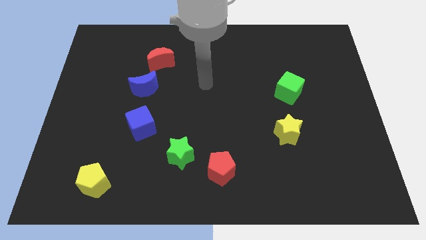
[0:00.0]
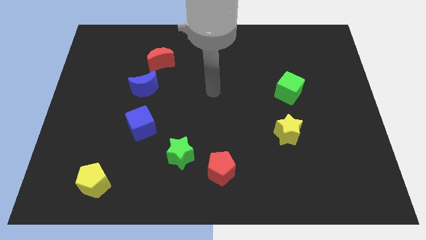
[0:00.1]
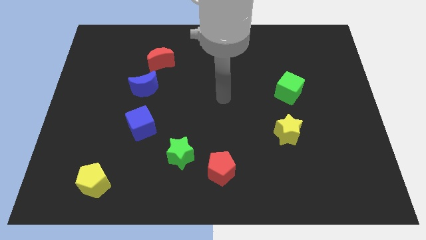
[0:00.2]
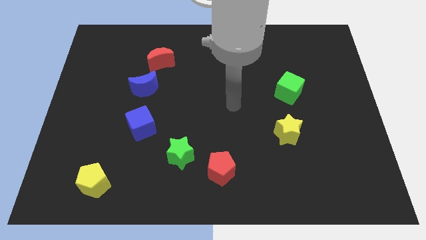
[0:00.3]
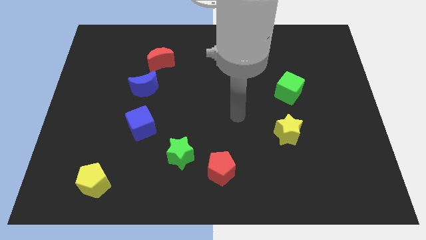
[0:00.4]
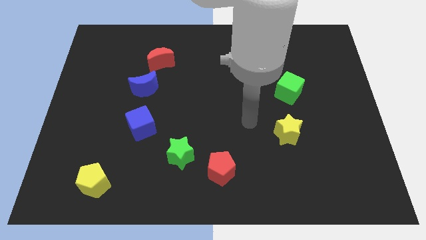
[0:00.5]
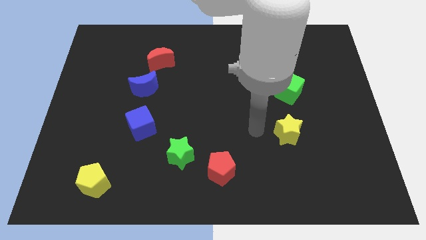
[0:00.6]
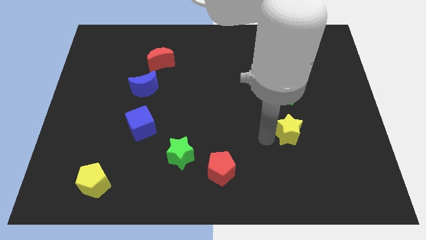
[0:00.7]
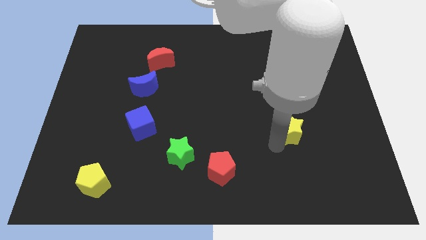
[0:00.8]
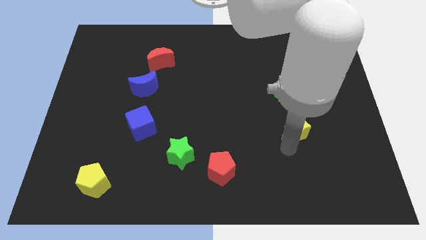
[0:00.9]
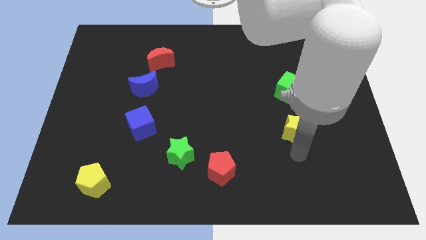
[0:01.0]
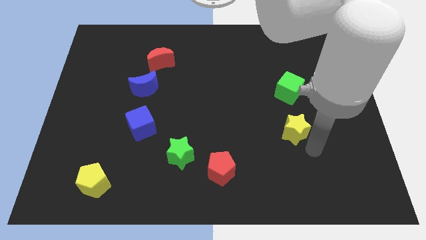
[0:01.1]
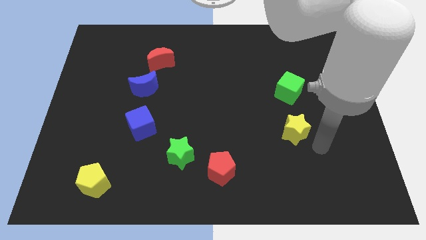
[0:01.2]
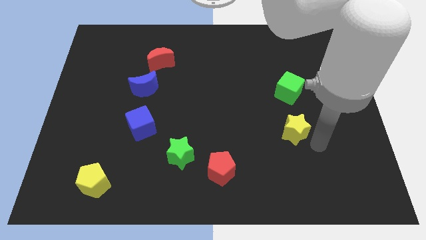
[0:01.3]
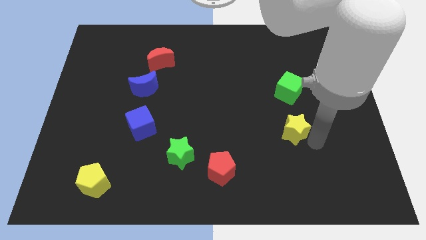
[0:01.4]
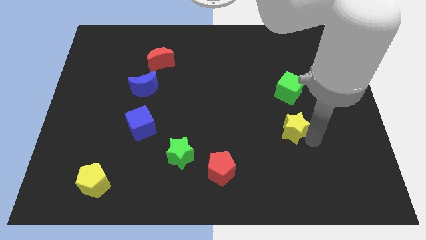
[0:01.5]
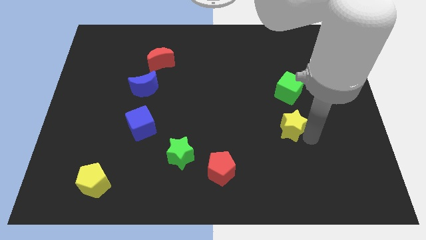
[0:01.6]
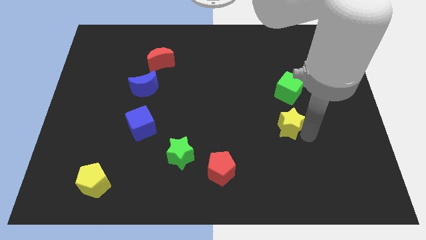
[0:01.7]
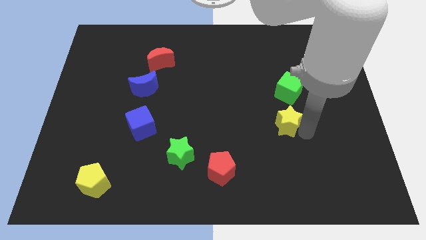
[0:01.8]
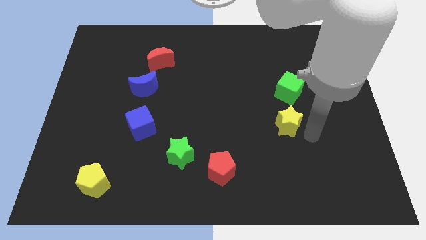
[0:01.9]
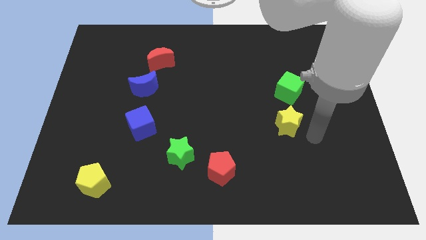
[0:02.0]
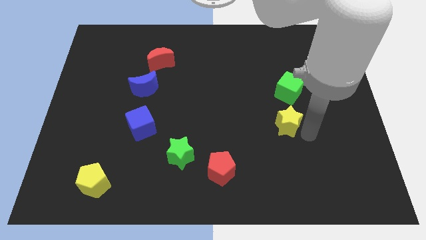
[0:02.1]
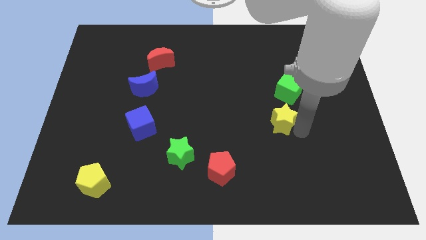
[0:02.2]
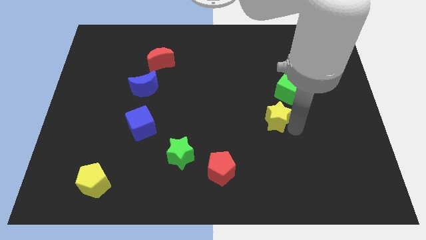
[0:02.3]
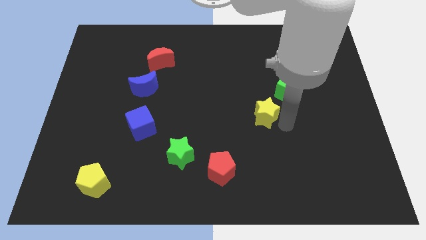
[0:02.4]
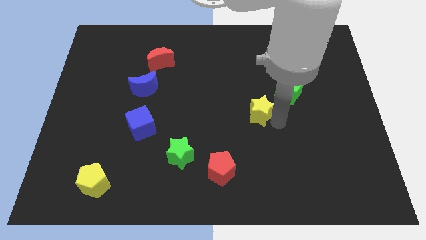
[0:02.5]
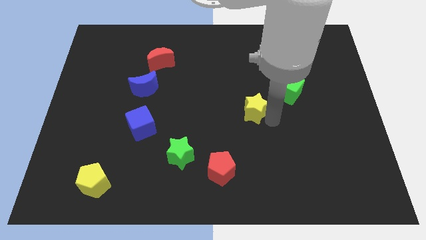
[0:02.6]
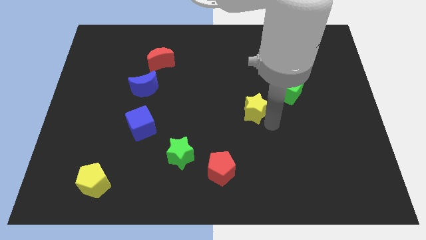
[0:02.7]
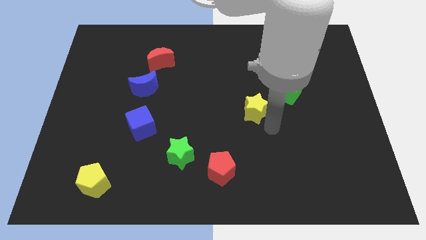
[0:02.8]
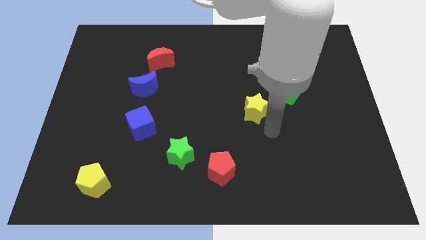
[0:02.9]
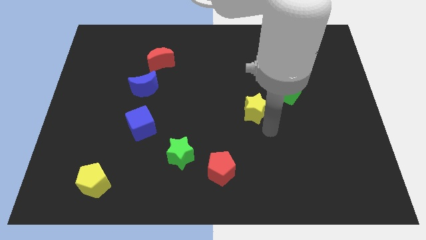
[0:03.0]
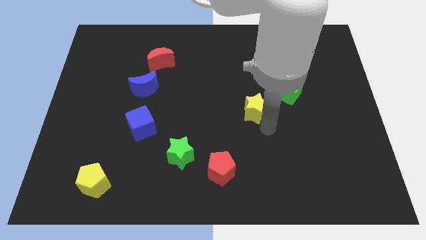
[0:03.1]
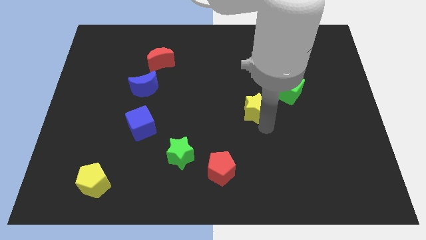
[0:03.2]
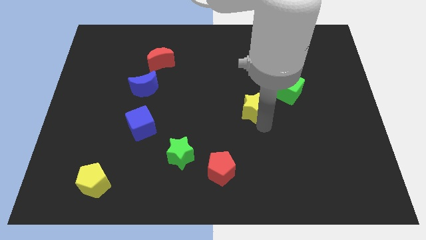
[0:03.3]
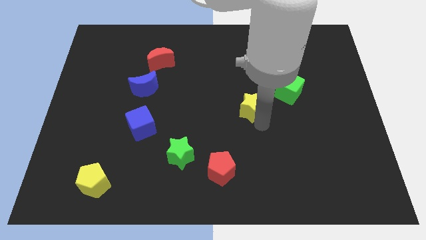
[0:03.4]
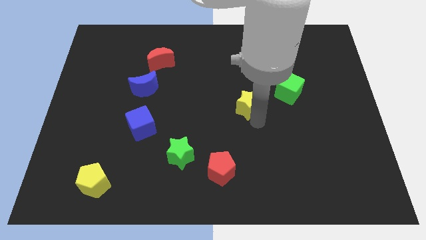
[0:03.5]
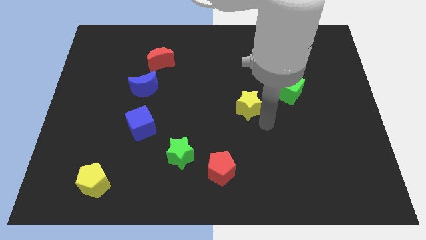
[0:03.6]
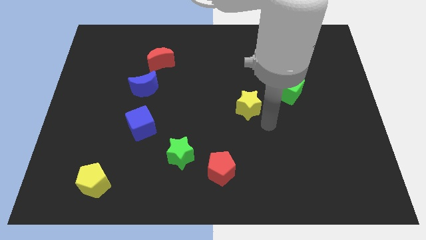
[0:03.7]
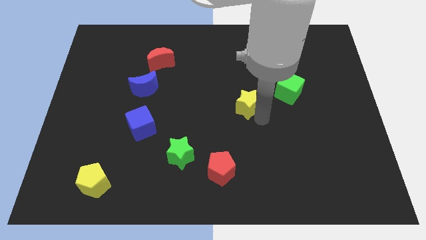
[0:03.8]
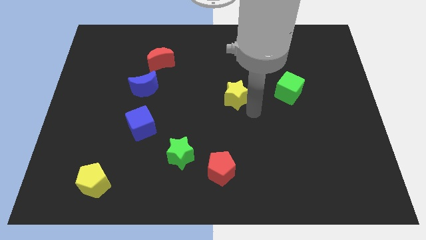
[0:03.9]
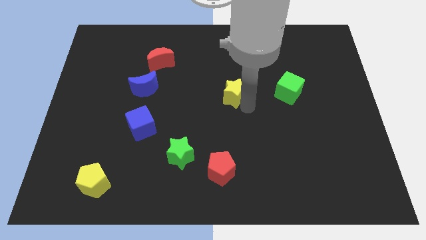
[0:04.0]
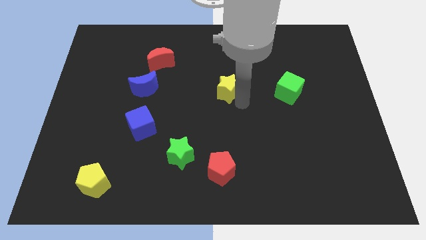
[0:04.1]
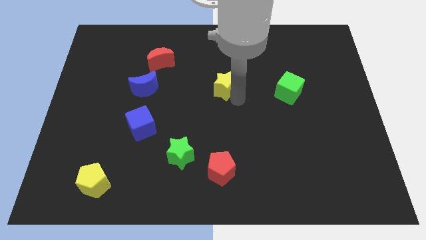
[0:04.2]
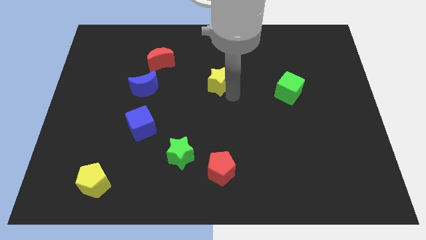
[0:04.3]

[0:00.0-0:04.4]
push the yellow star upwards and to the left diagonally

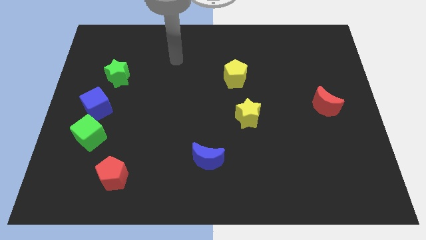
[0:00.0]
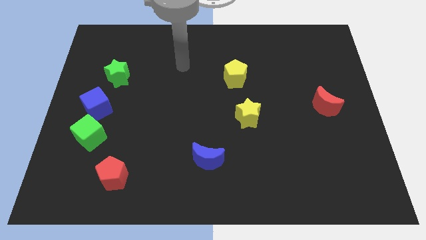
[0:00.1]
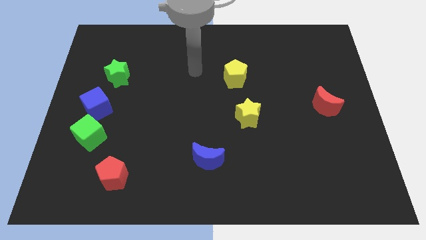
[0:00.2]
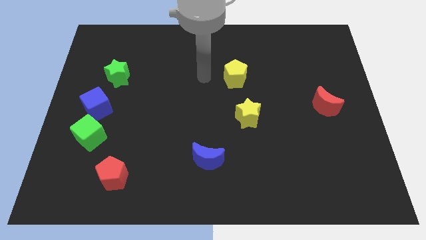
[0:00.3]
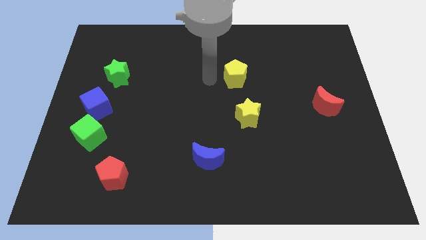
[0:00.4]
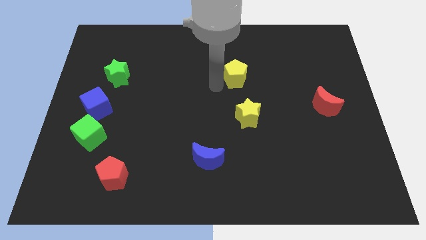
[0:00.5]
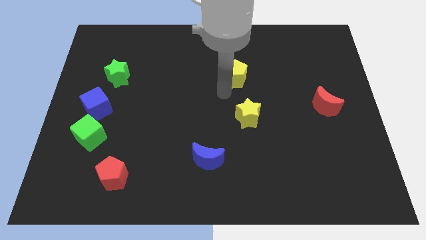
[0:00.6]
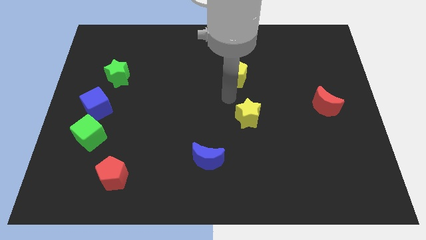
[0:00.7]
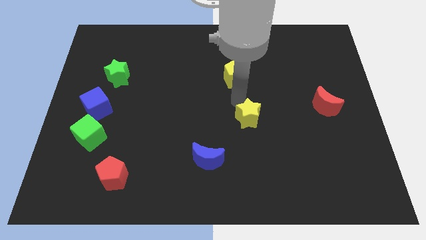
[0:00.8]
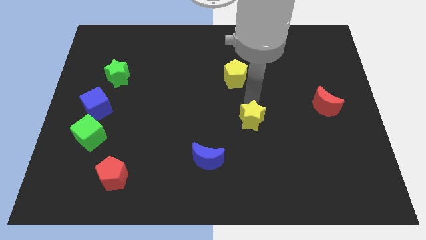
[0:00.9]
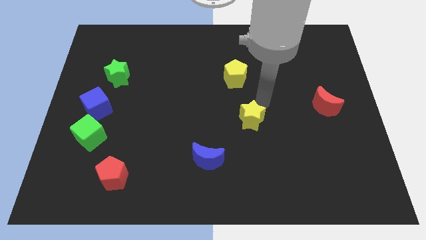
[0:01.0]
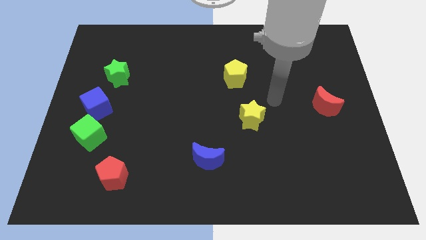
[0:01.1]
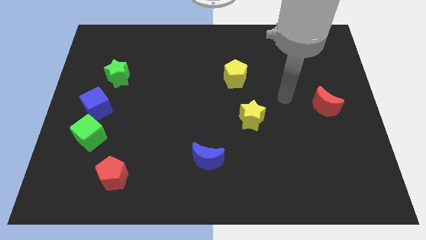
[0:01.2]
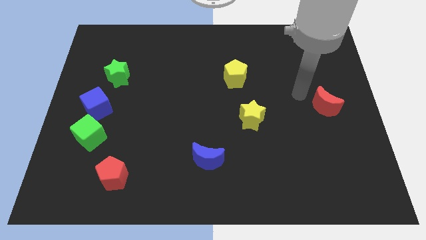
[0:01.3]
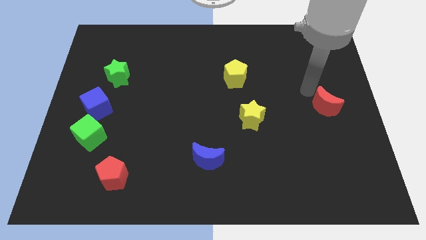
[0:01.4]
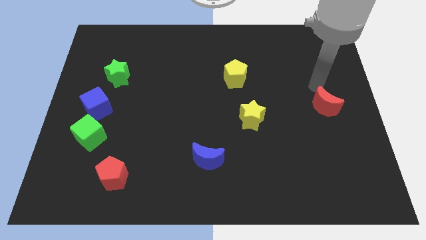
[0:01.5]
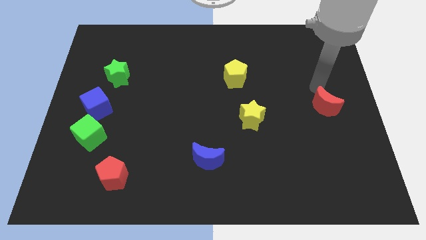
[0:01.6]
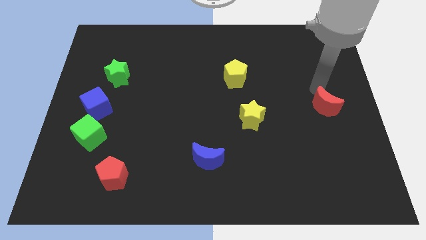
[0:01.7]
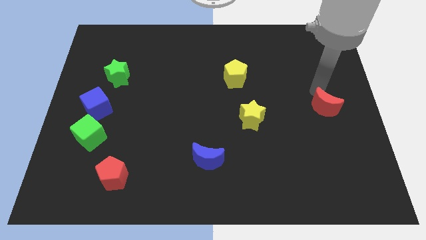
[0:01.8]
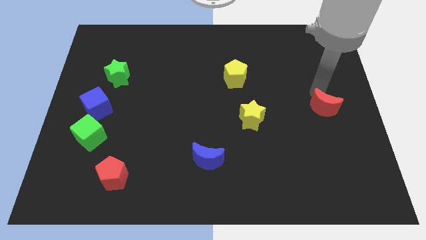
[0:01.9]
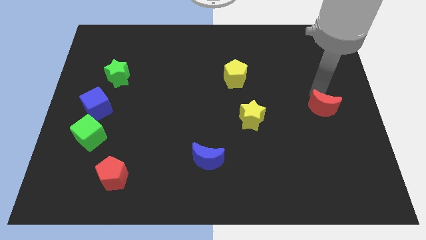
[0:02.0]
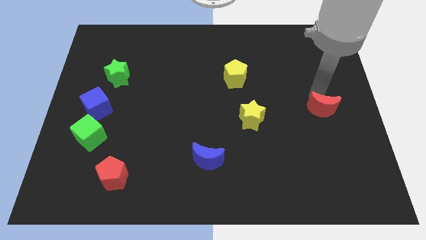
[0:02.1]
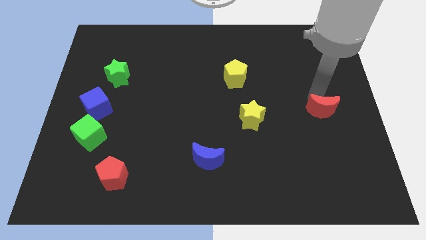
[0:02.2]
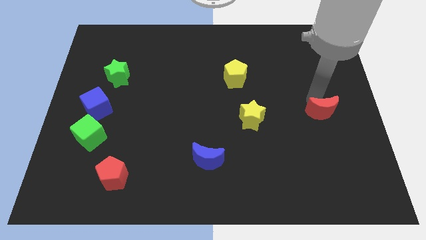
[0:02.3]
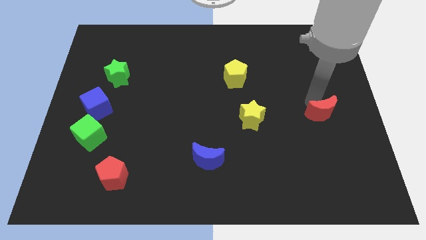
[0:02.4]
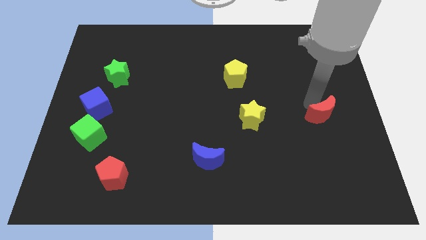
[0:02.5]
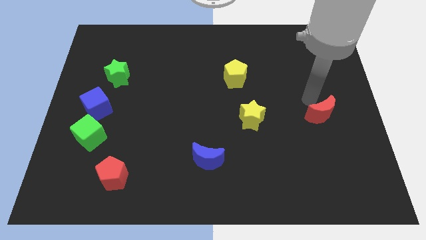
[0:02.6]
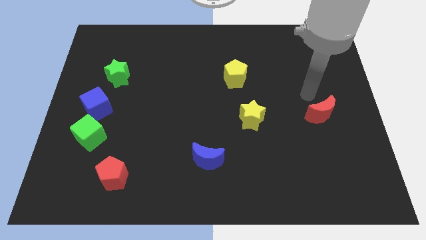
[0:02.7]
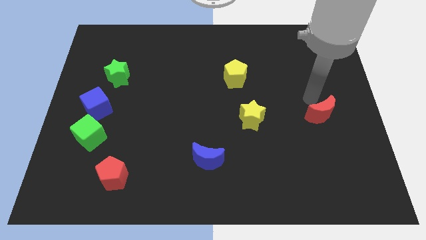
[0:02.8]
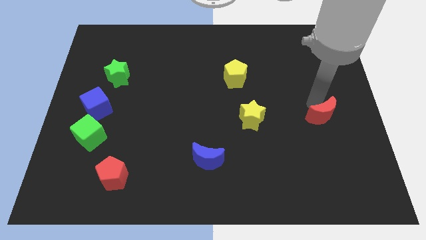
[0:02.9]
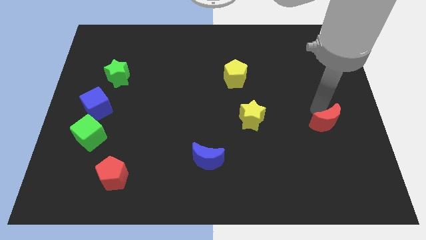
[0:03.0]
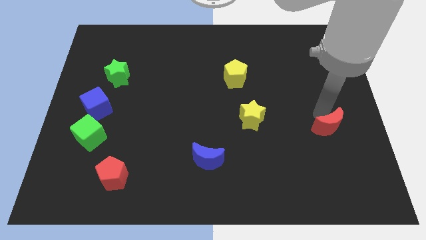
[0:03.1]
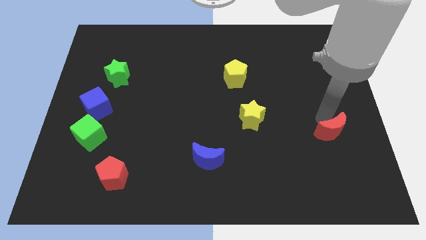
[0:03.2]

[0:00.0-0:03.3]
move the red moon downwards a little bit

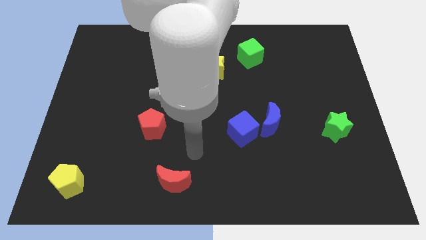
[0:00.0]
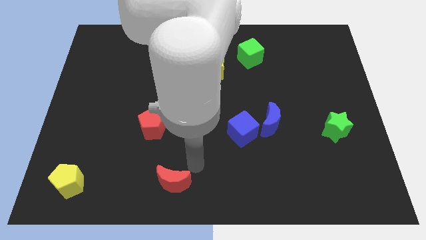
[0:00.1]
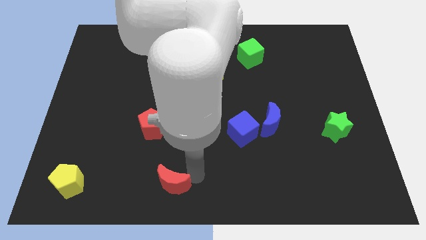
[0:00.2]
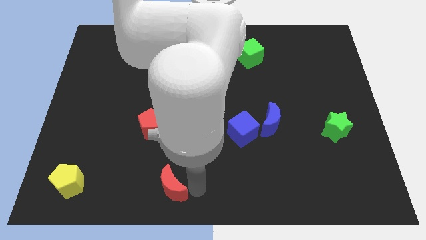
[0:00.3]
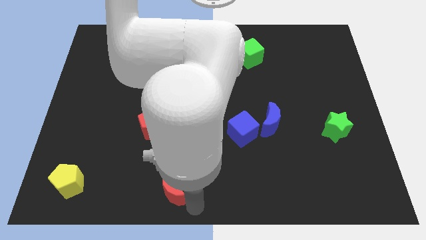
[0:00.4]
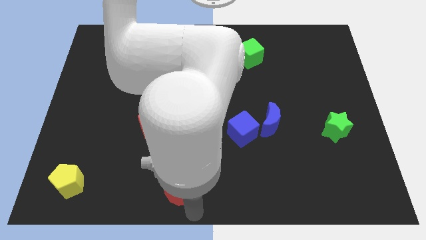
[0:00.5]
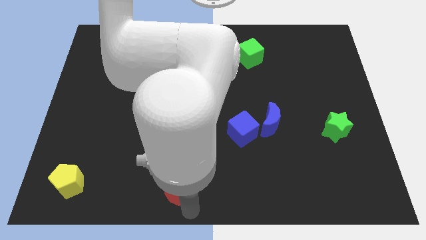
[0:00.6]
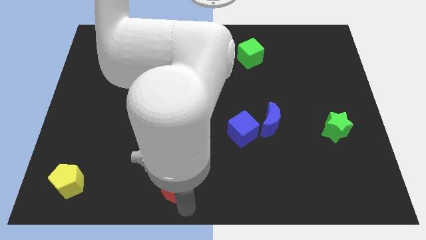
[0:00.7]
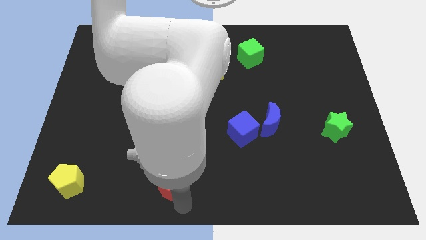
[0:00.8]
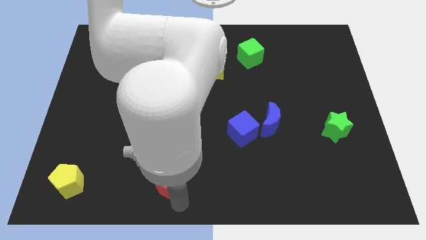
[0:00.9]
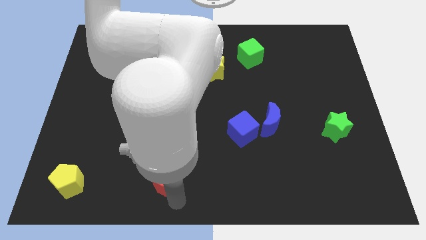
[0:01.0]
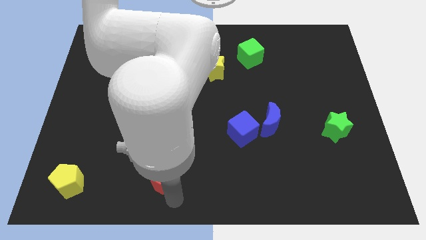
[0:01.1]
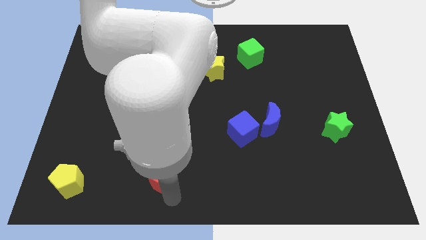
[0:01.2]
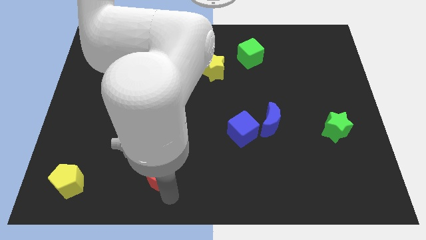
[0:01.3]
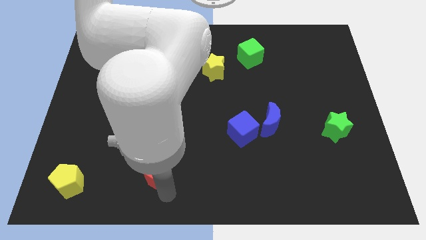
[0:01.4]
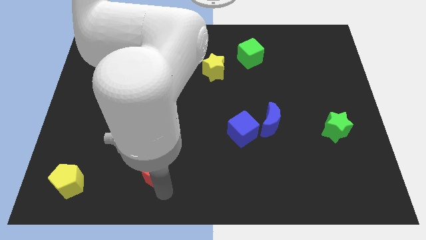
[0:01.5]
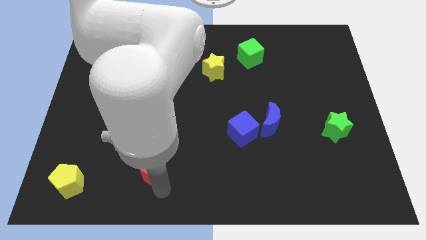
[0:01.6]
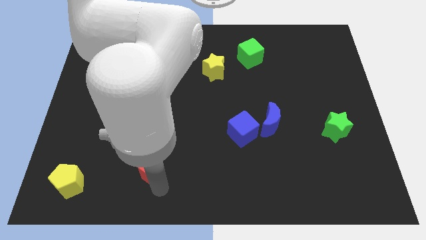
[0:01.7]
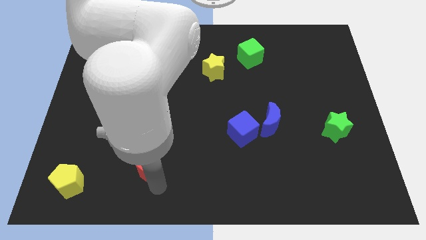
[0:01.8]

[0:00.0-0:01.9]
slightly move the red moon diagonally up and left
